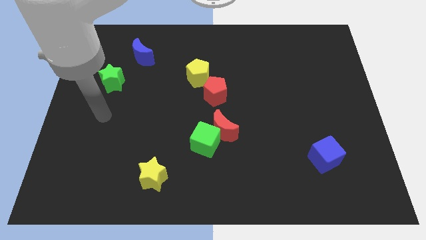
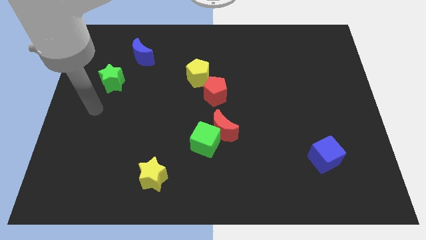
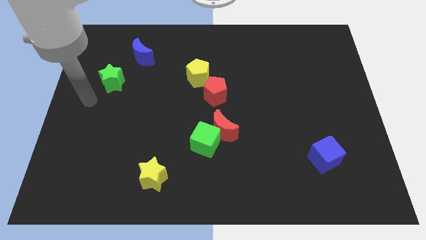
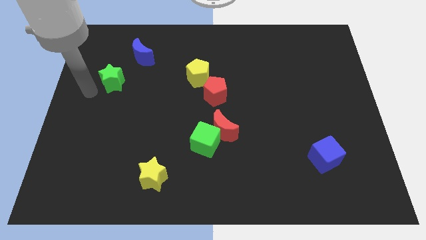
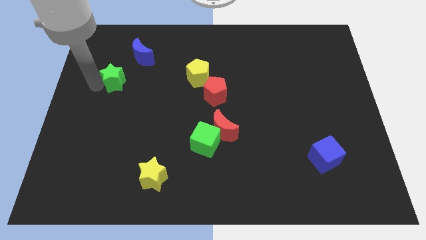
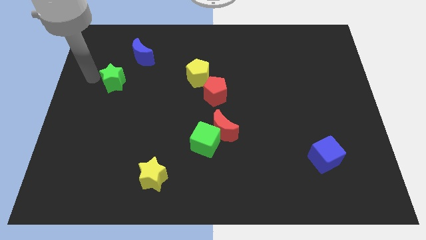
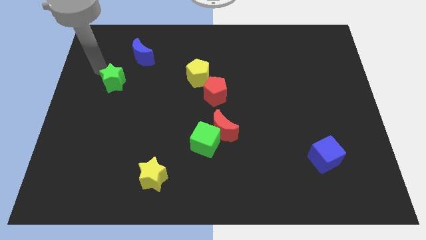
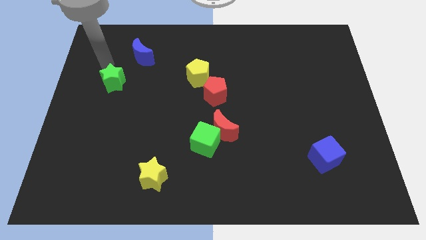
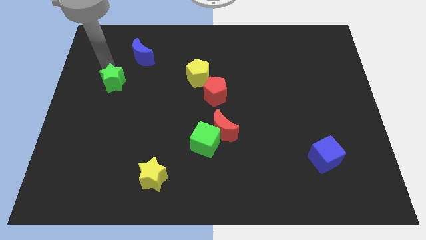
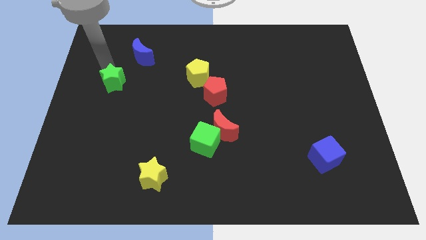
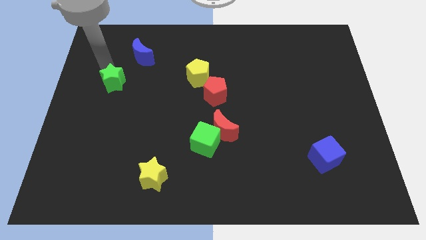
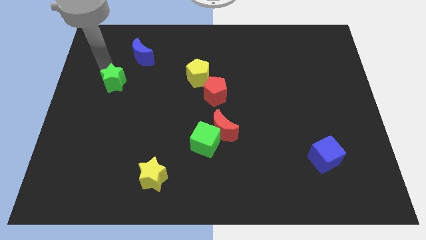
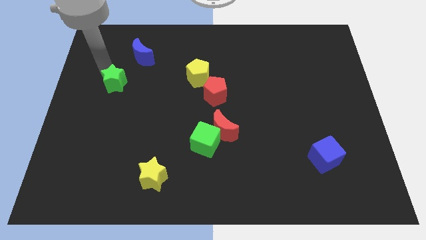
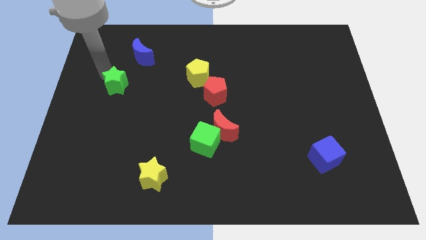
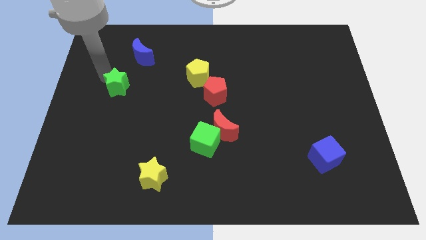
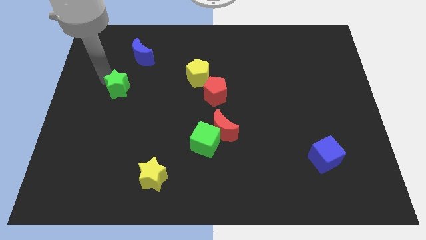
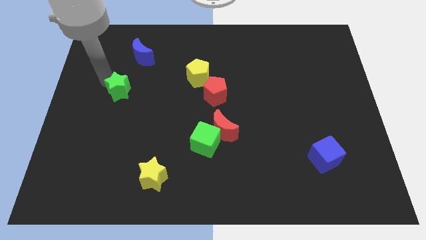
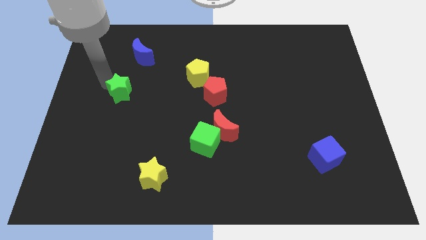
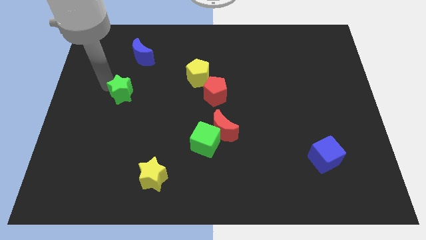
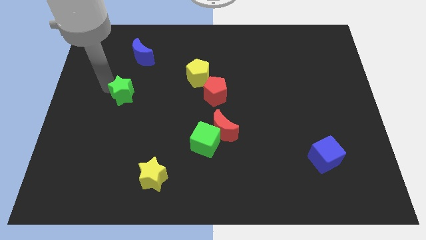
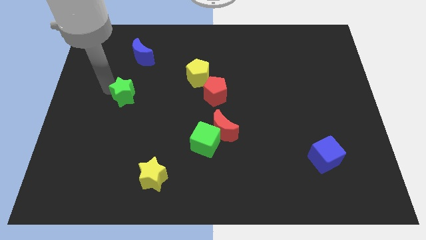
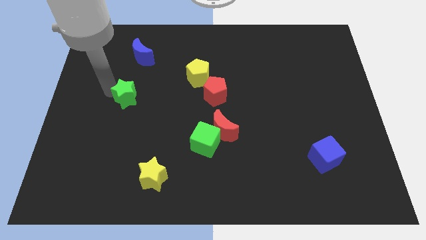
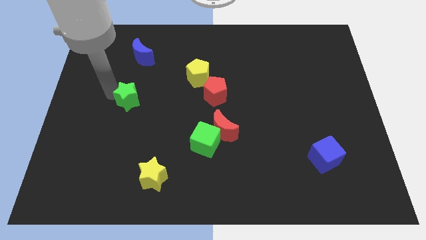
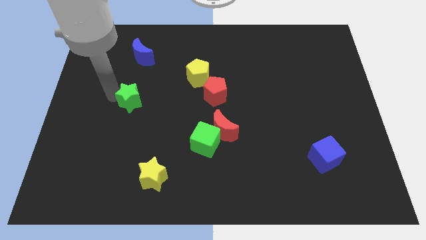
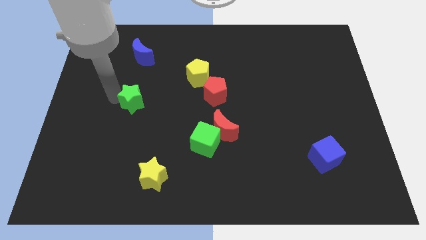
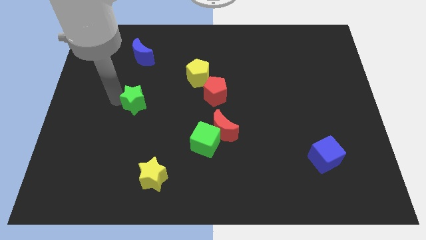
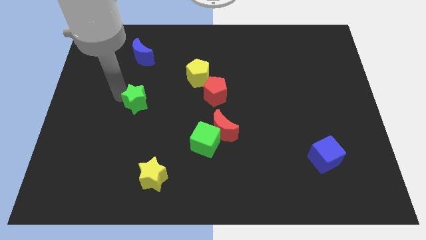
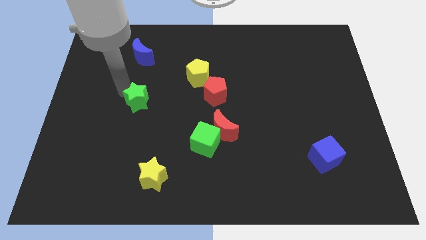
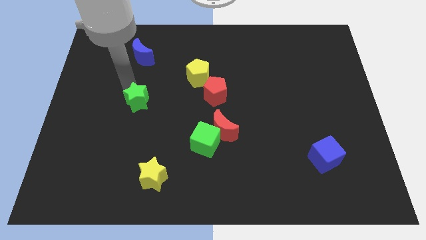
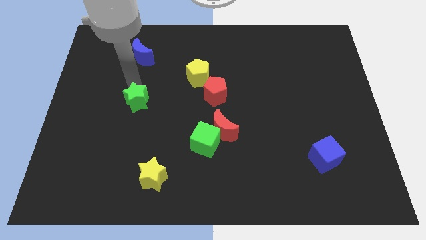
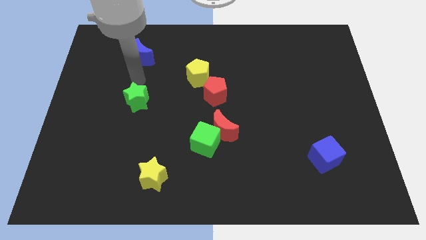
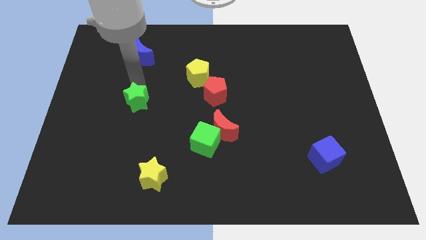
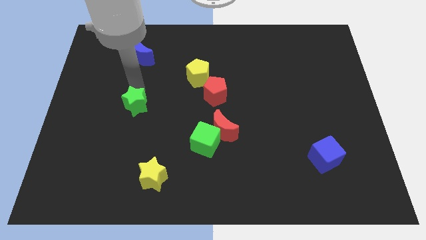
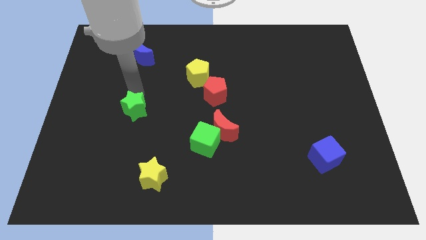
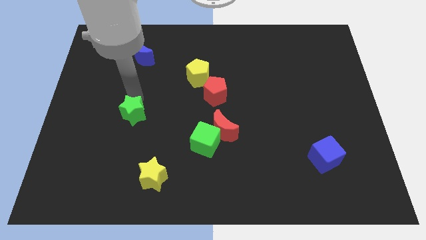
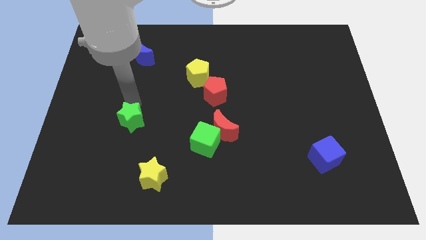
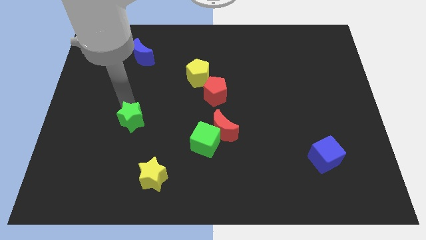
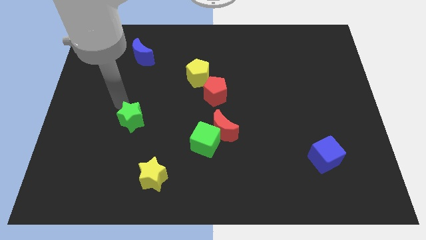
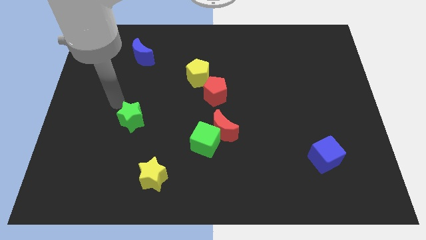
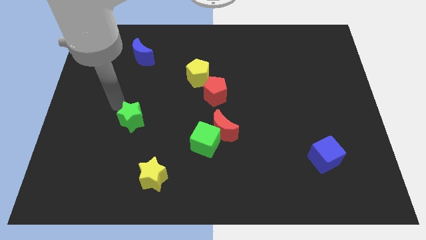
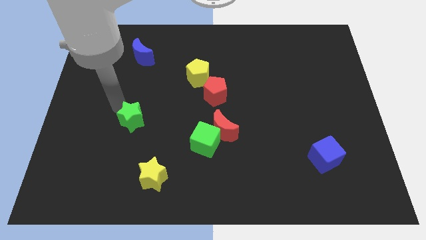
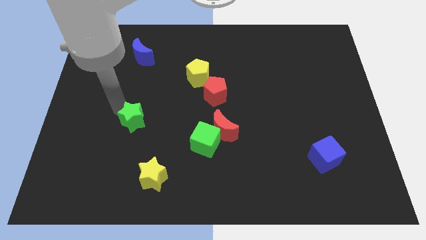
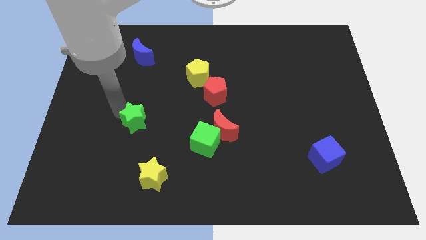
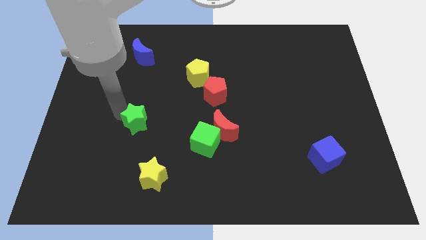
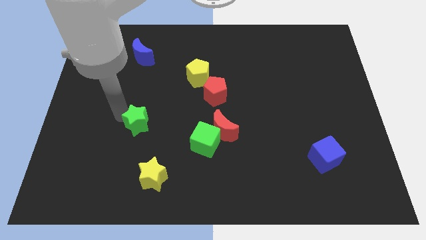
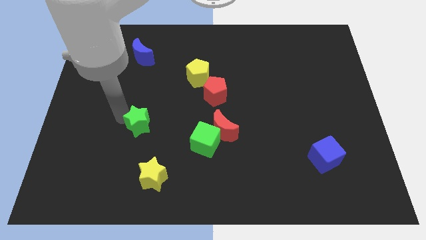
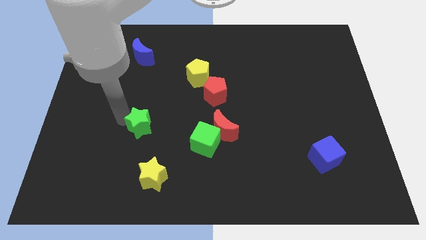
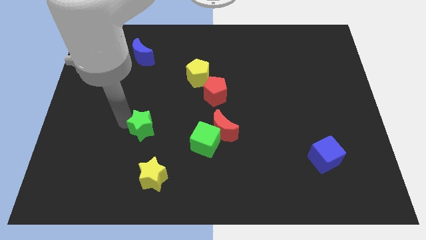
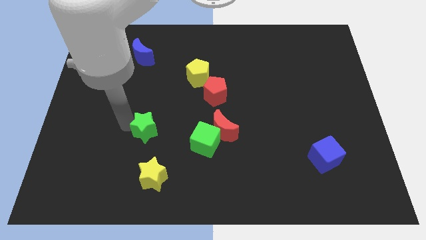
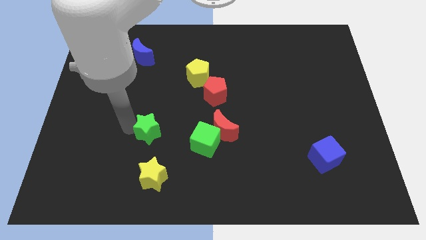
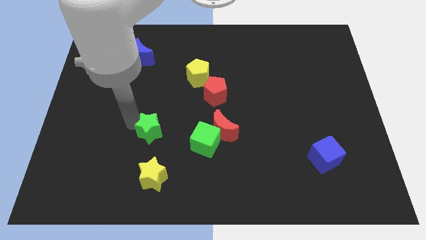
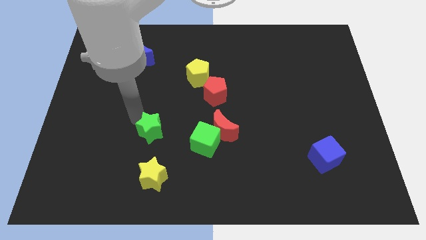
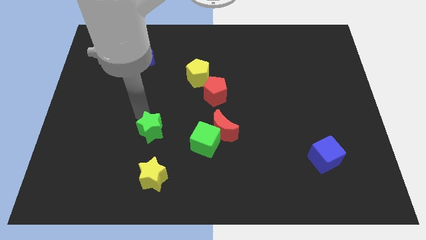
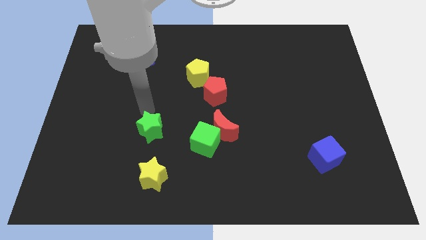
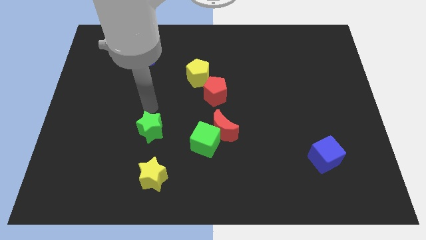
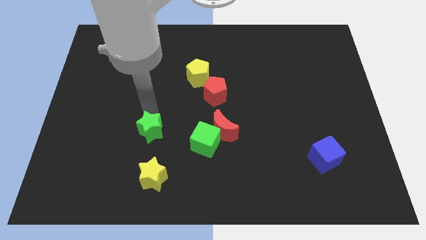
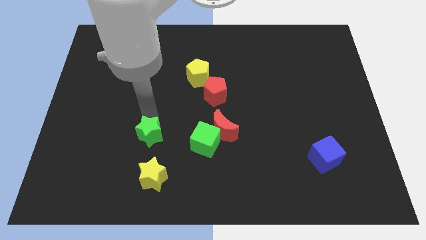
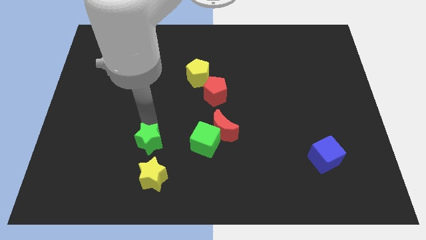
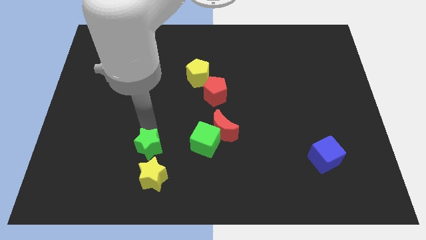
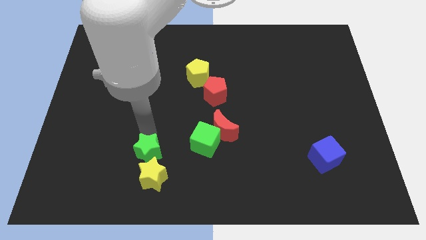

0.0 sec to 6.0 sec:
move the green star to the yellow star

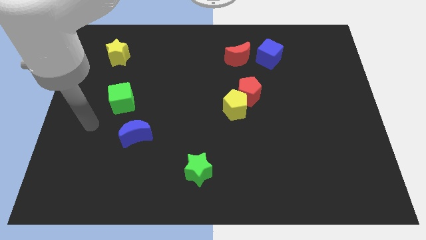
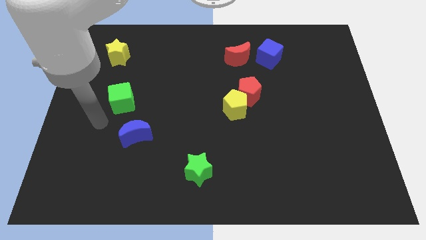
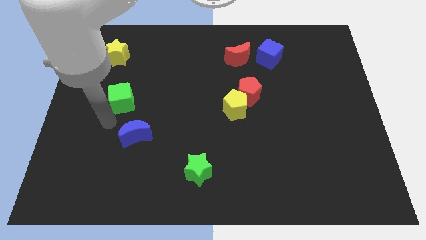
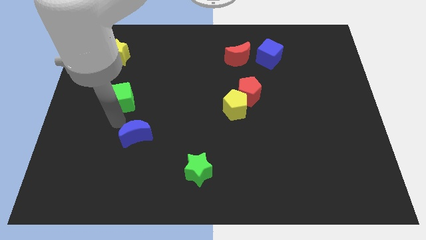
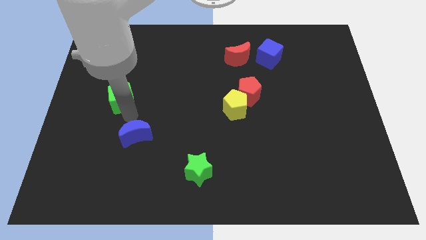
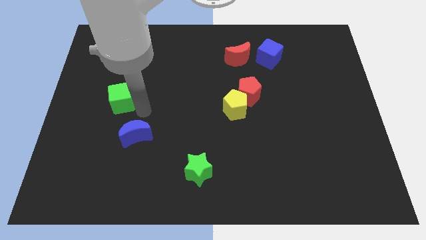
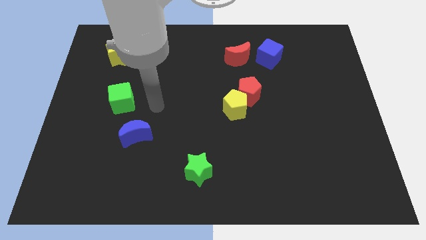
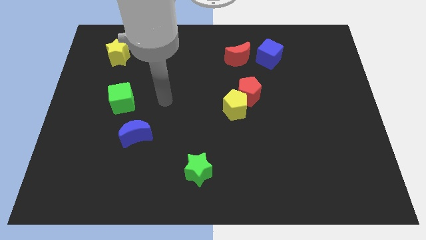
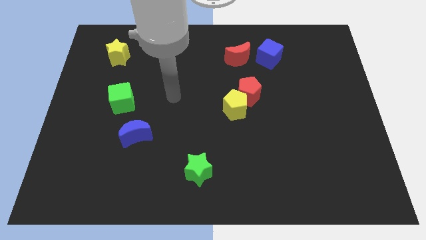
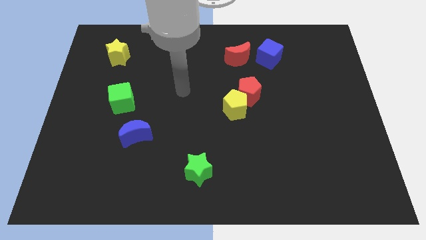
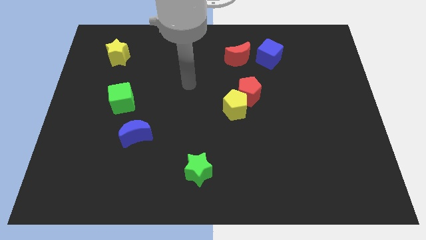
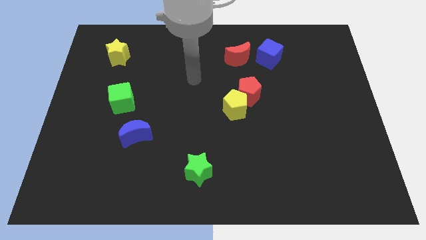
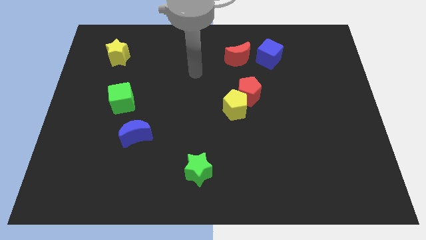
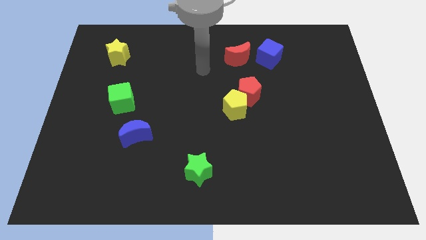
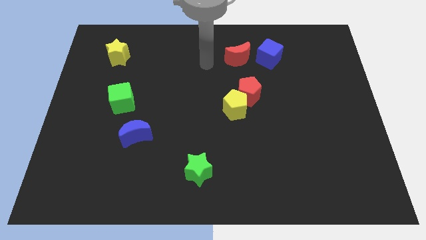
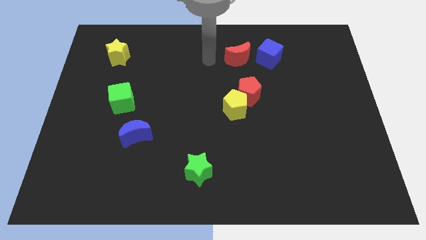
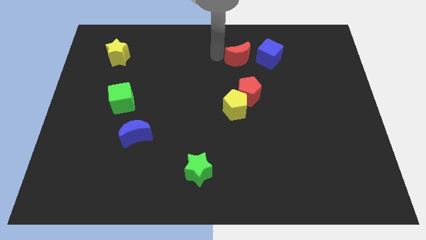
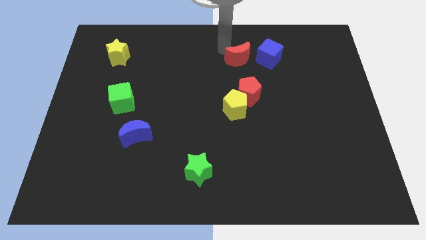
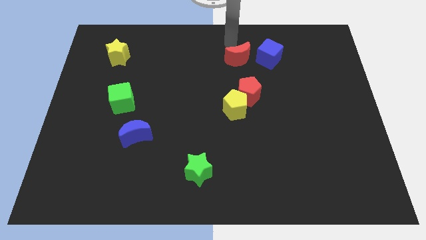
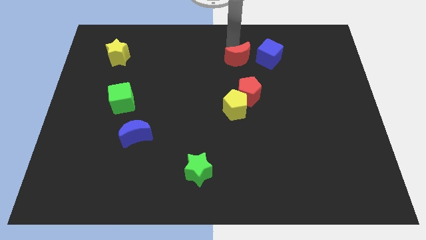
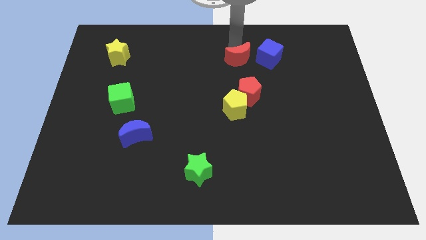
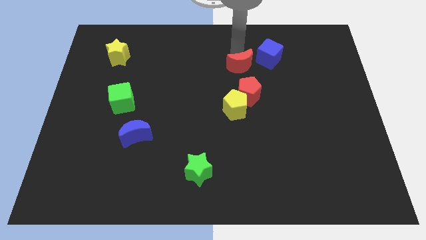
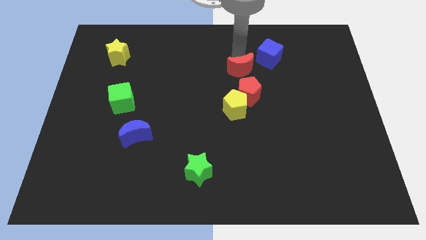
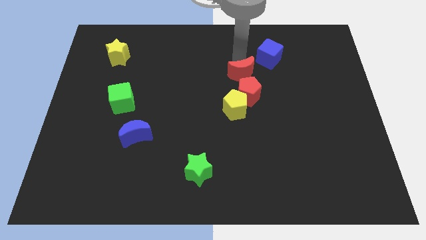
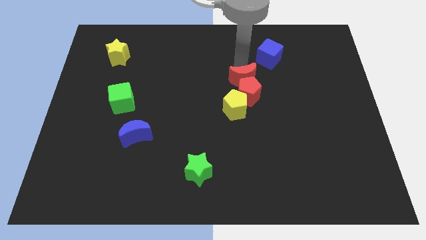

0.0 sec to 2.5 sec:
push the red moon close to the red pentagon
